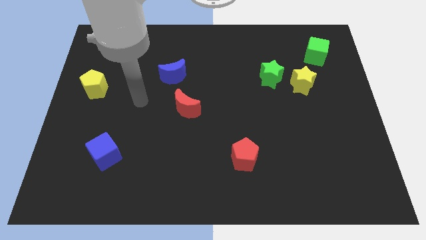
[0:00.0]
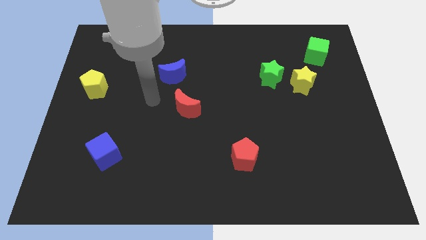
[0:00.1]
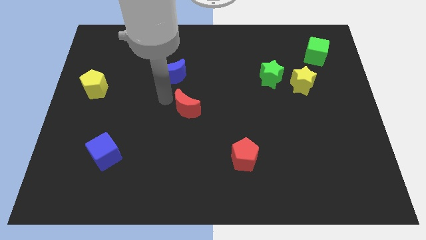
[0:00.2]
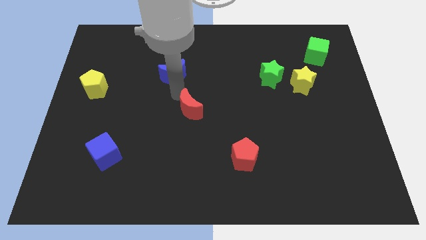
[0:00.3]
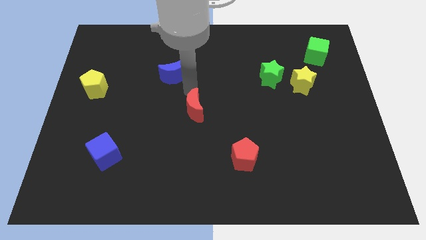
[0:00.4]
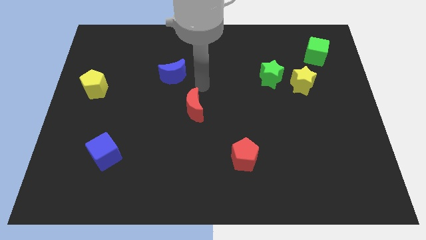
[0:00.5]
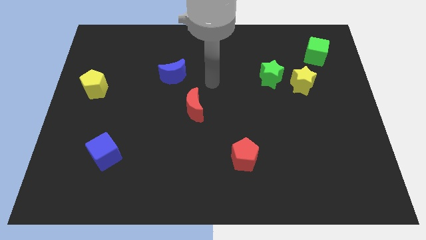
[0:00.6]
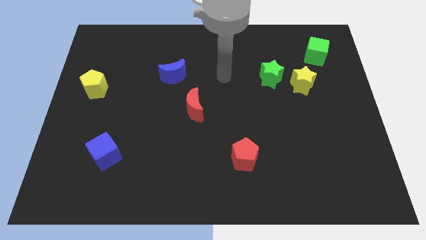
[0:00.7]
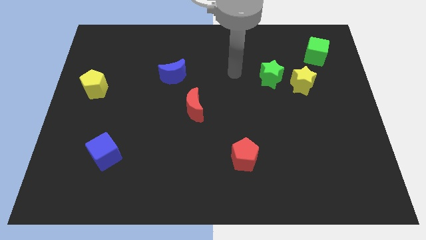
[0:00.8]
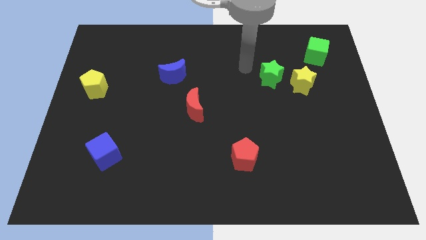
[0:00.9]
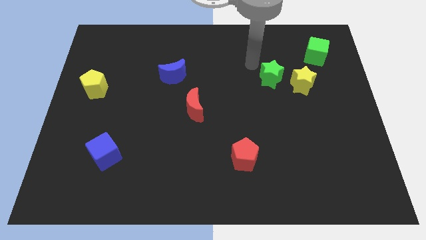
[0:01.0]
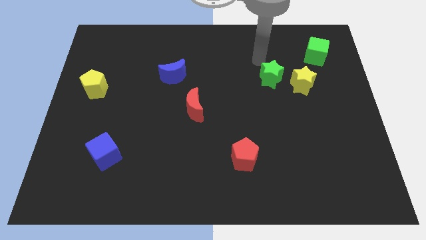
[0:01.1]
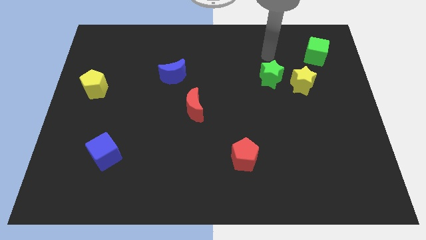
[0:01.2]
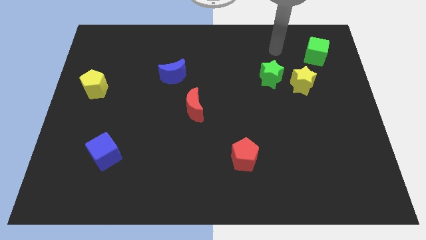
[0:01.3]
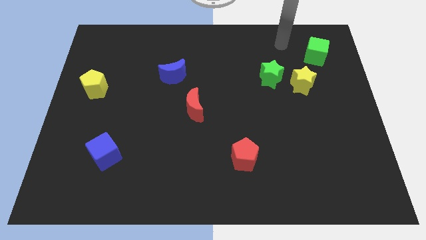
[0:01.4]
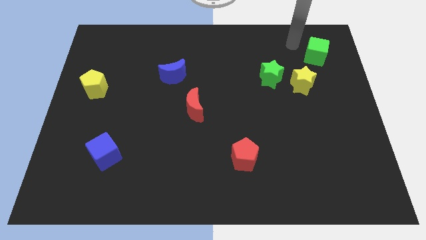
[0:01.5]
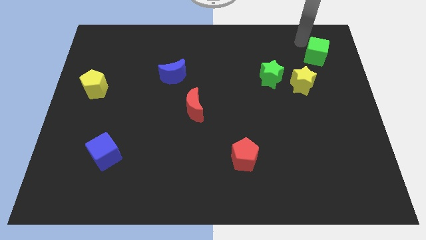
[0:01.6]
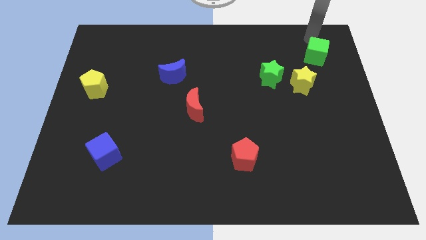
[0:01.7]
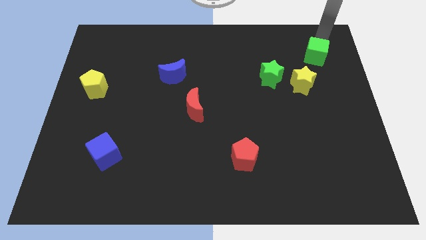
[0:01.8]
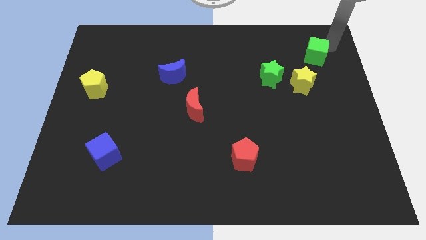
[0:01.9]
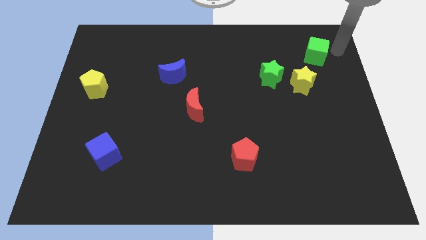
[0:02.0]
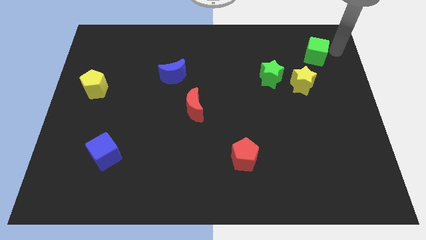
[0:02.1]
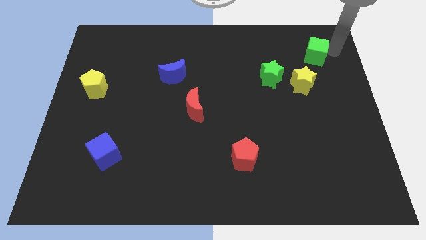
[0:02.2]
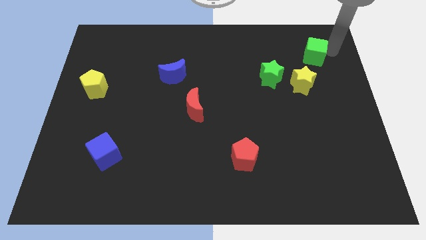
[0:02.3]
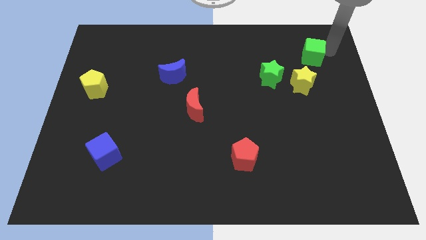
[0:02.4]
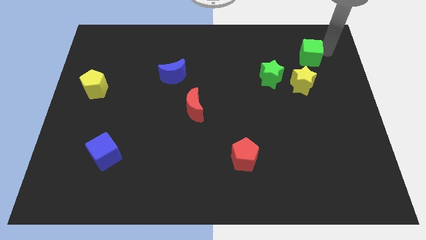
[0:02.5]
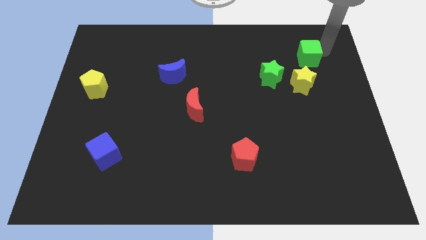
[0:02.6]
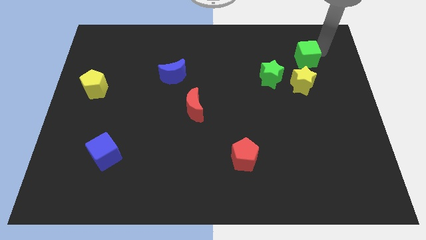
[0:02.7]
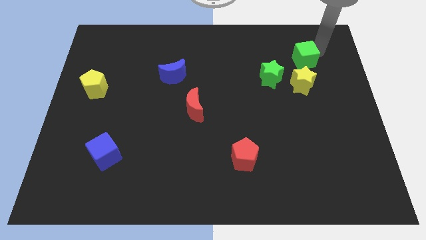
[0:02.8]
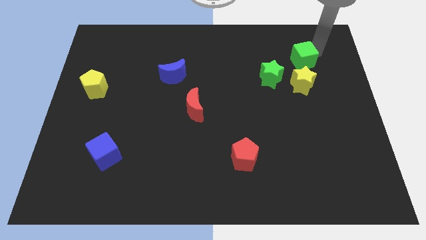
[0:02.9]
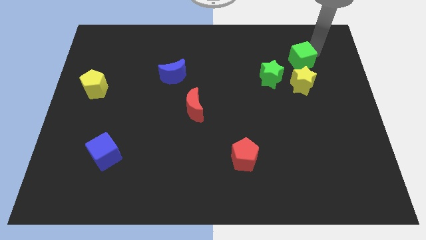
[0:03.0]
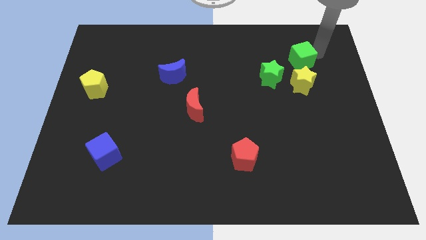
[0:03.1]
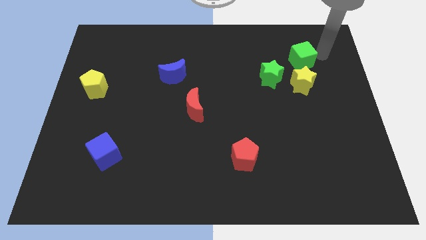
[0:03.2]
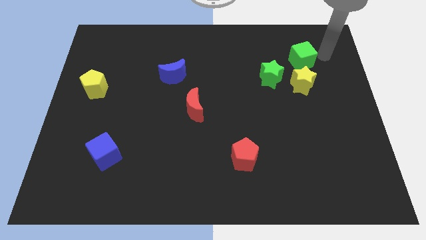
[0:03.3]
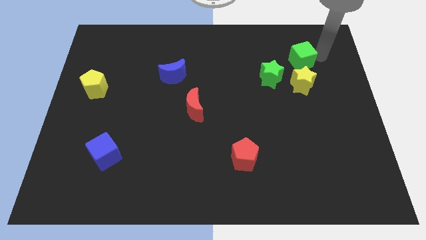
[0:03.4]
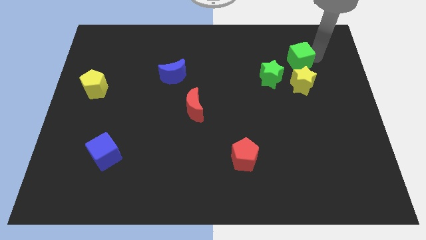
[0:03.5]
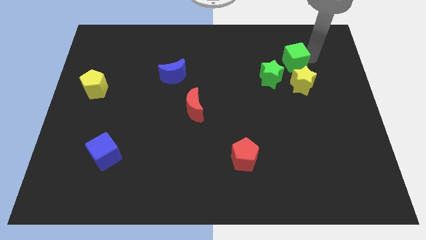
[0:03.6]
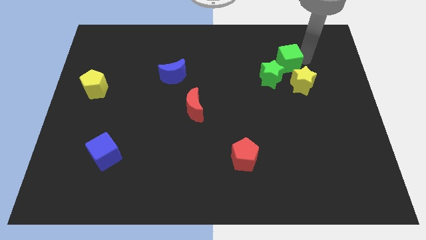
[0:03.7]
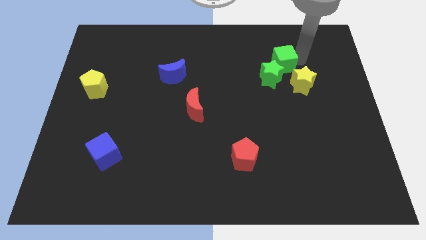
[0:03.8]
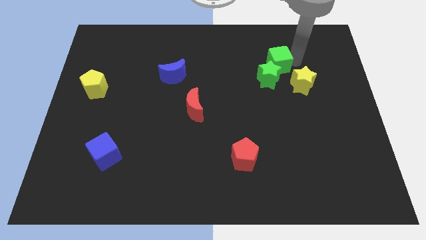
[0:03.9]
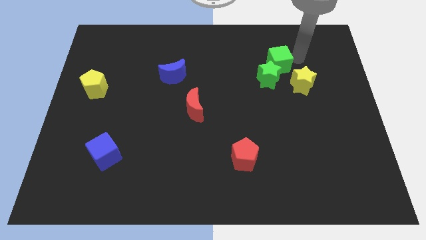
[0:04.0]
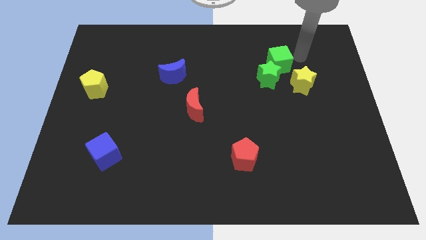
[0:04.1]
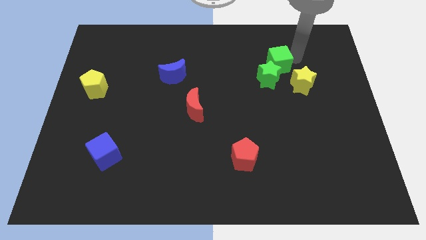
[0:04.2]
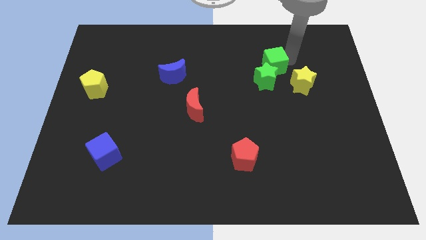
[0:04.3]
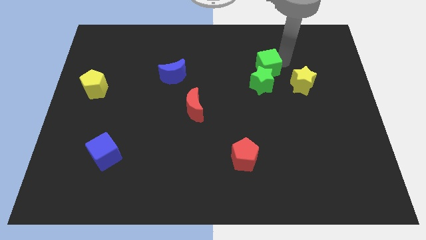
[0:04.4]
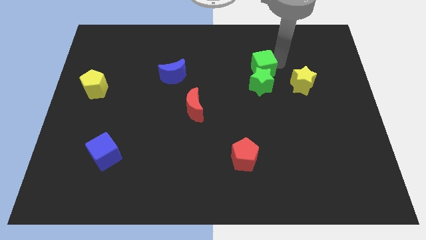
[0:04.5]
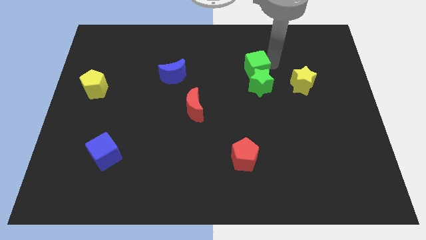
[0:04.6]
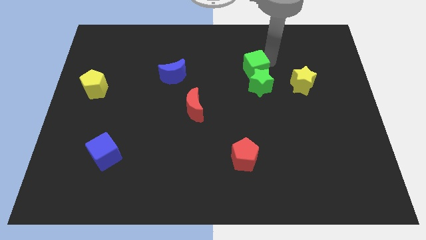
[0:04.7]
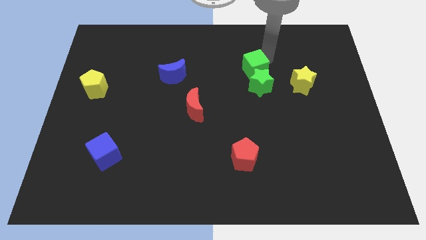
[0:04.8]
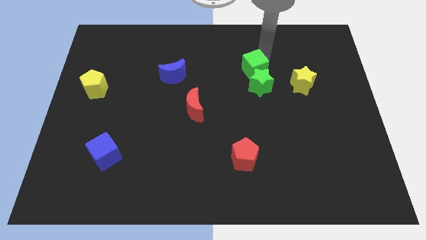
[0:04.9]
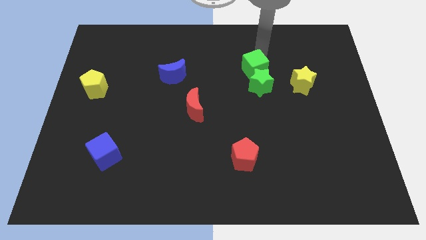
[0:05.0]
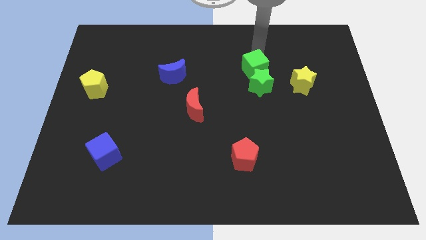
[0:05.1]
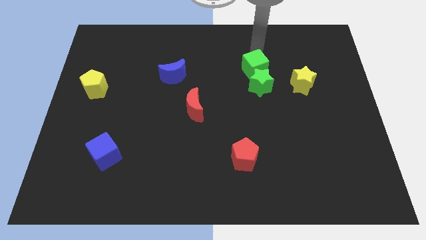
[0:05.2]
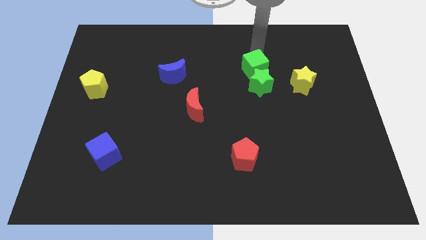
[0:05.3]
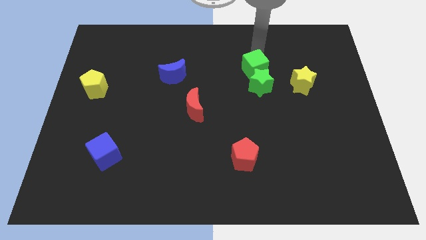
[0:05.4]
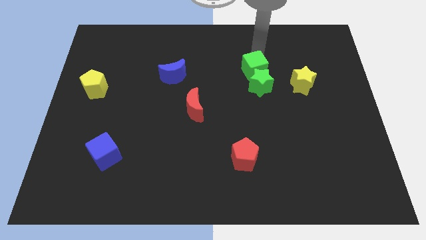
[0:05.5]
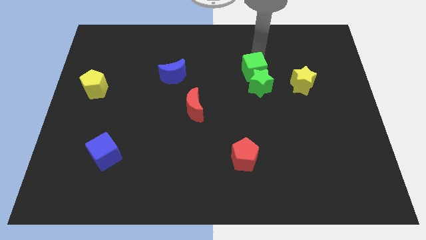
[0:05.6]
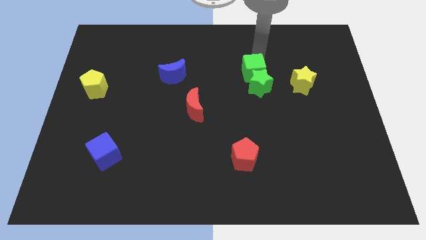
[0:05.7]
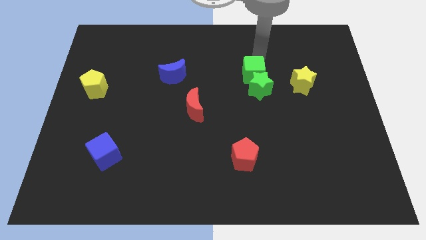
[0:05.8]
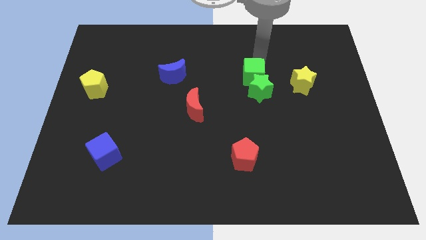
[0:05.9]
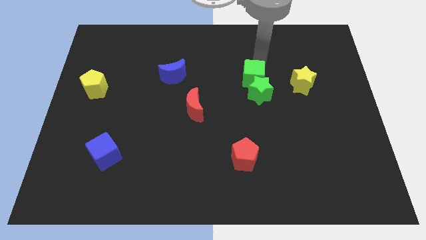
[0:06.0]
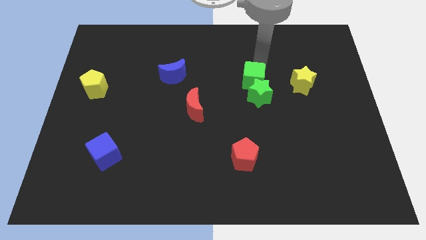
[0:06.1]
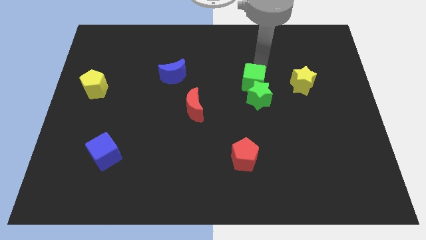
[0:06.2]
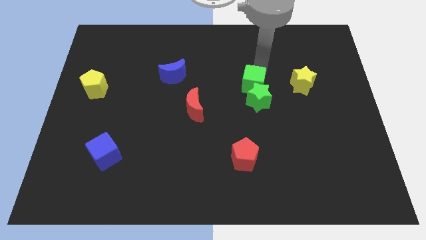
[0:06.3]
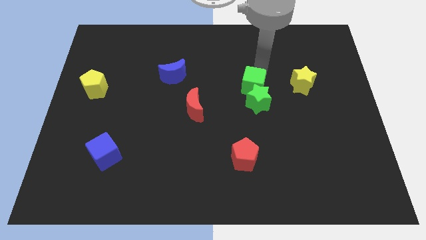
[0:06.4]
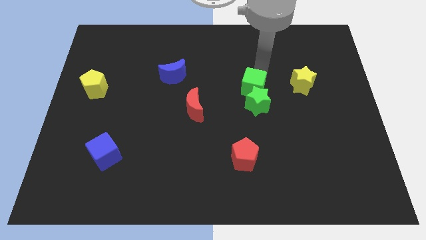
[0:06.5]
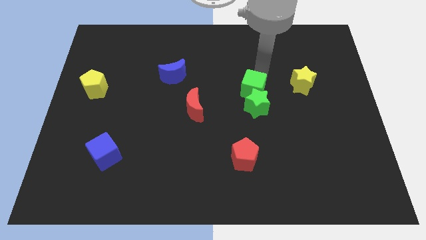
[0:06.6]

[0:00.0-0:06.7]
move the green cube downwards and then to the left

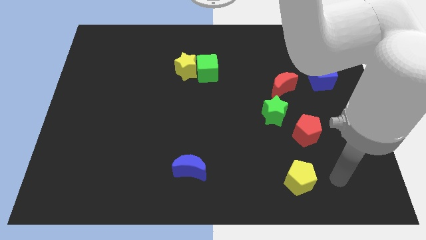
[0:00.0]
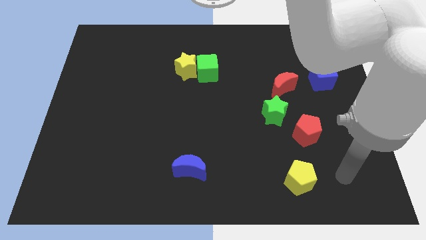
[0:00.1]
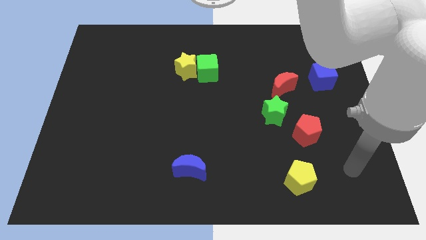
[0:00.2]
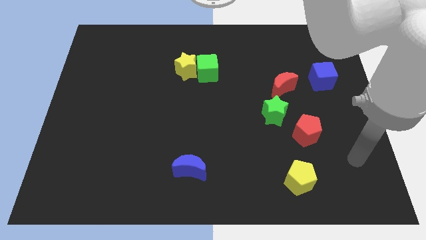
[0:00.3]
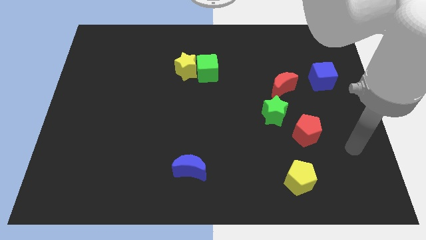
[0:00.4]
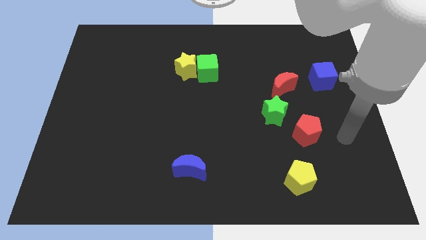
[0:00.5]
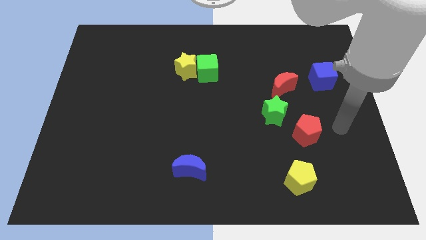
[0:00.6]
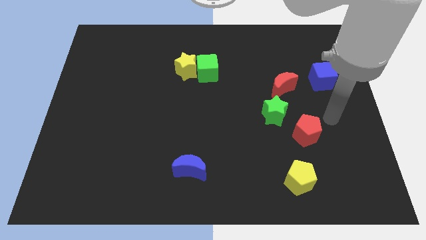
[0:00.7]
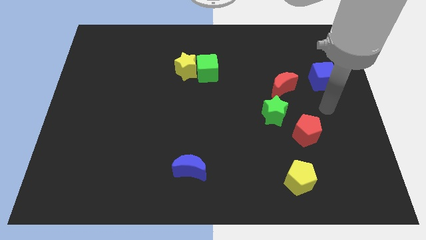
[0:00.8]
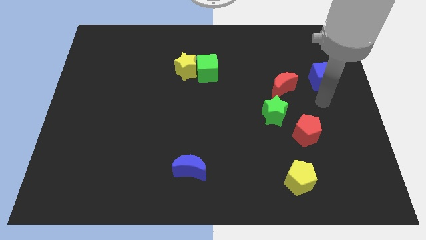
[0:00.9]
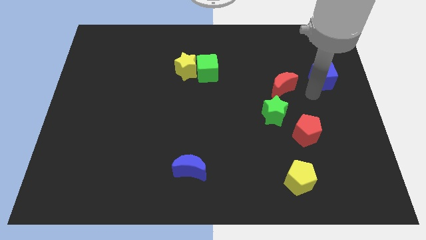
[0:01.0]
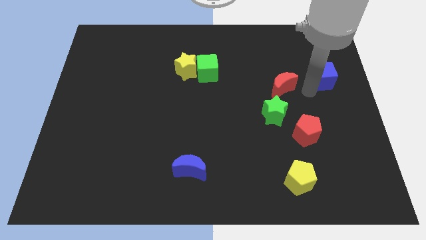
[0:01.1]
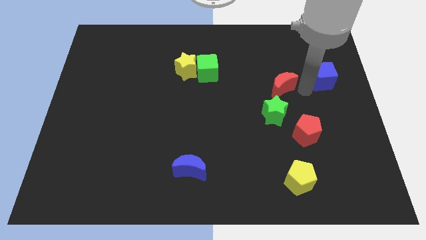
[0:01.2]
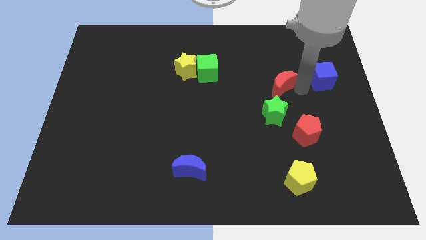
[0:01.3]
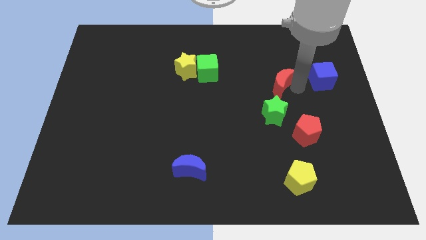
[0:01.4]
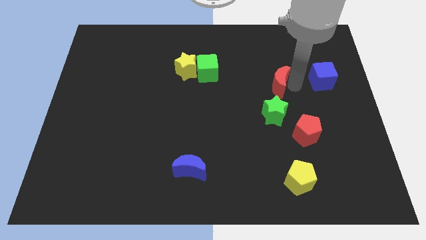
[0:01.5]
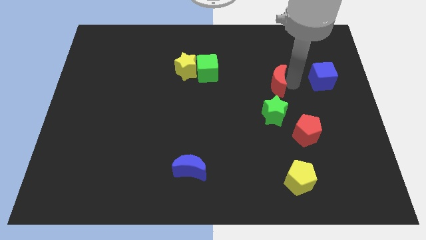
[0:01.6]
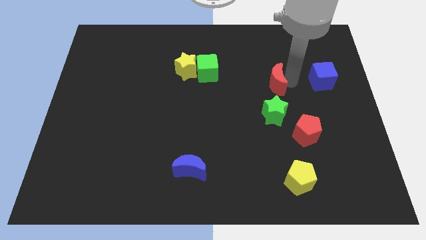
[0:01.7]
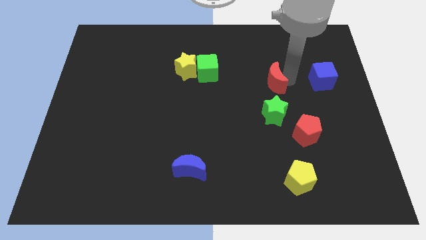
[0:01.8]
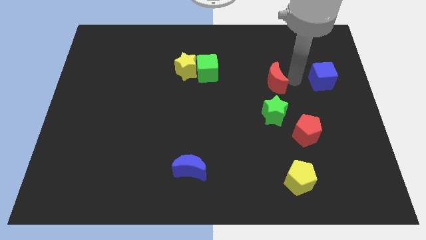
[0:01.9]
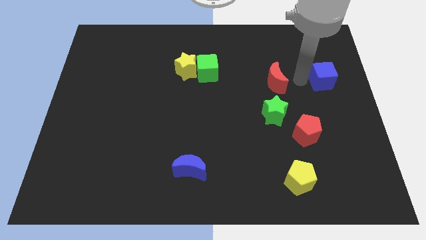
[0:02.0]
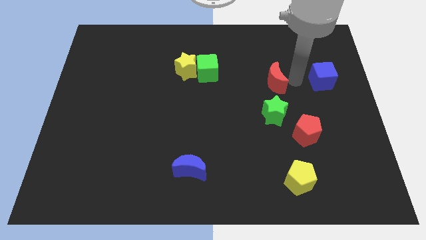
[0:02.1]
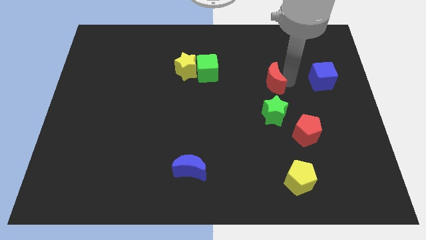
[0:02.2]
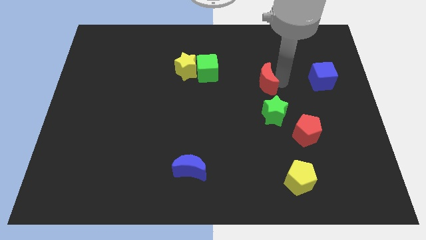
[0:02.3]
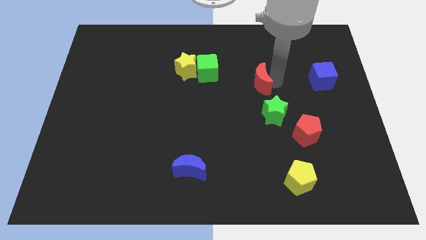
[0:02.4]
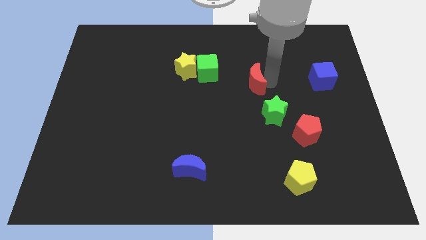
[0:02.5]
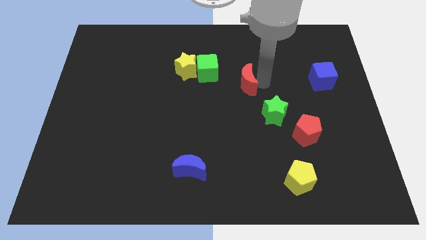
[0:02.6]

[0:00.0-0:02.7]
slide the red moon to the left slightly
